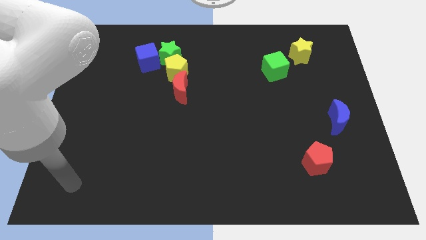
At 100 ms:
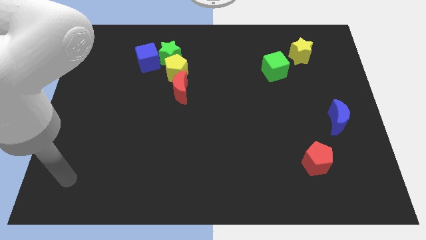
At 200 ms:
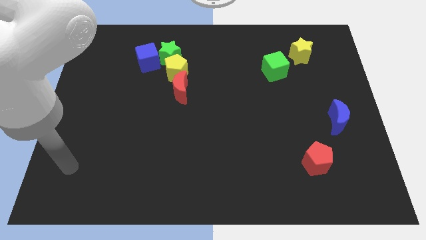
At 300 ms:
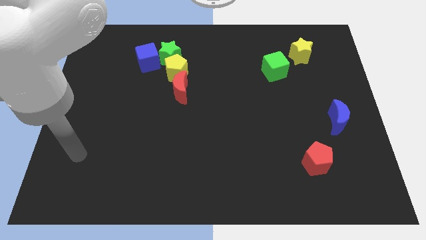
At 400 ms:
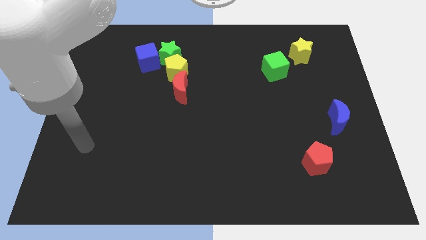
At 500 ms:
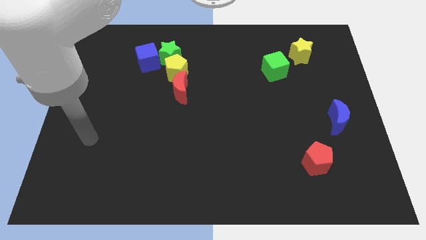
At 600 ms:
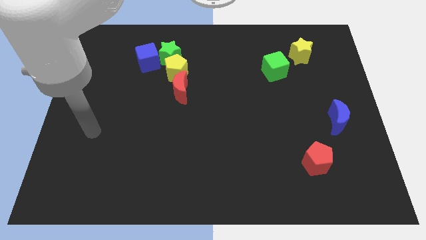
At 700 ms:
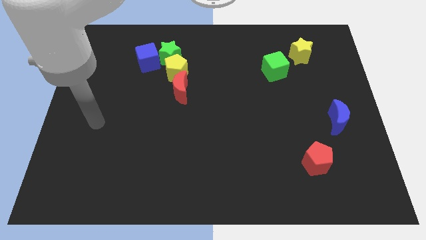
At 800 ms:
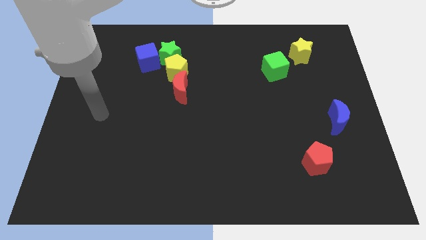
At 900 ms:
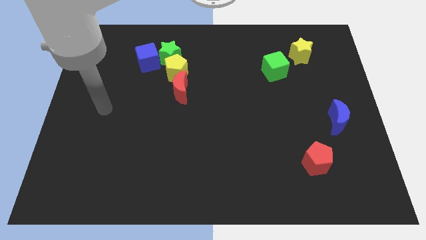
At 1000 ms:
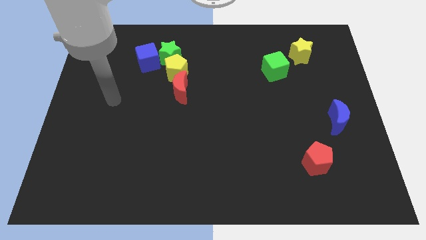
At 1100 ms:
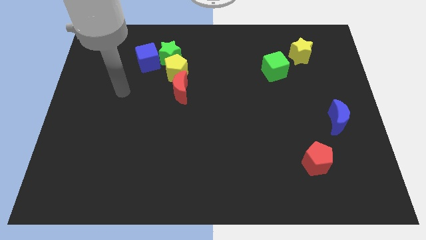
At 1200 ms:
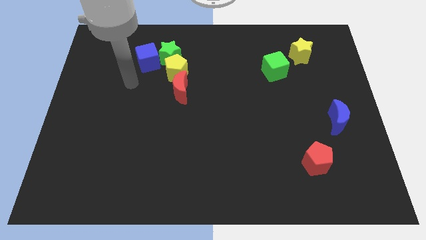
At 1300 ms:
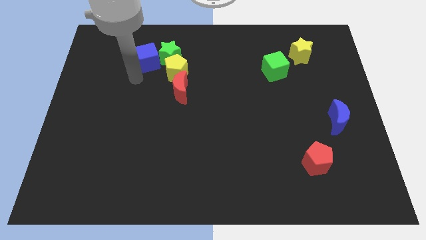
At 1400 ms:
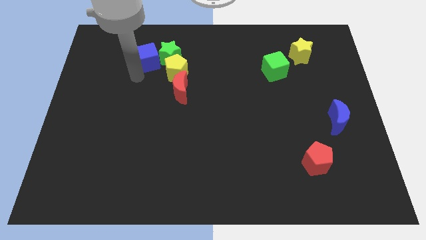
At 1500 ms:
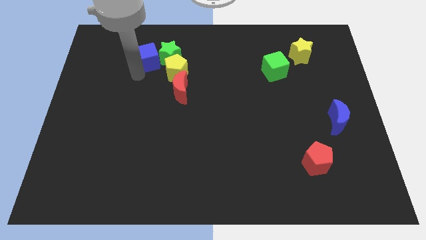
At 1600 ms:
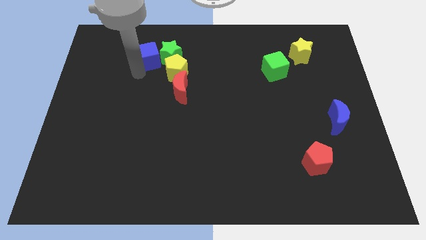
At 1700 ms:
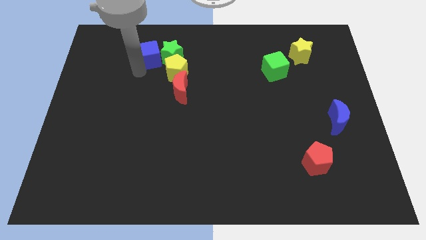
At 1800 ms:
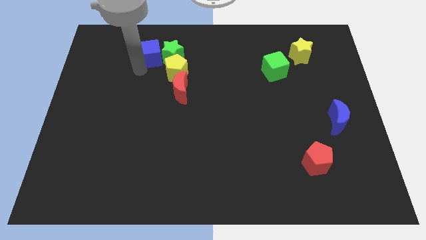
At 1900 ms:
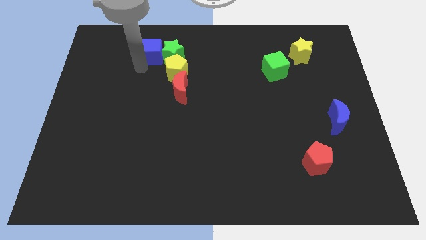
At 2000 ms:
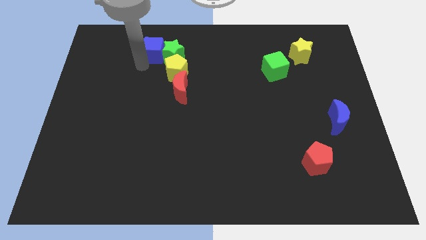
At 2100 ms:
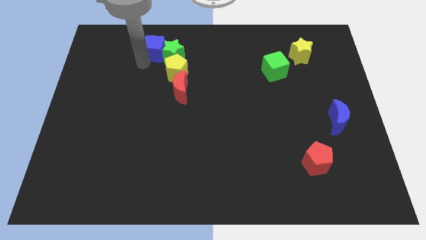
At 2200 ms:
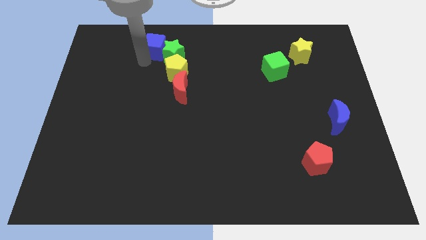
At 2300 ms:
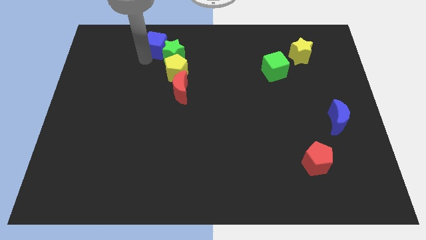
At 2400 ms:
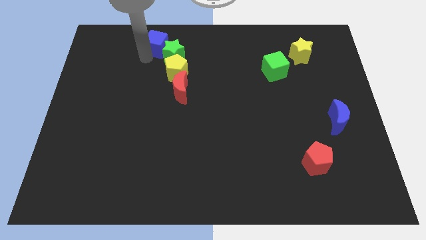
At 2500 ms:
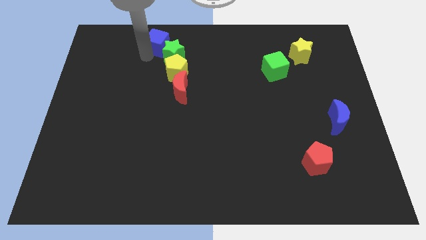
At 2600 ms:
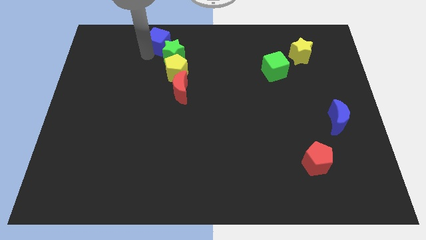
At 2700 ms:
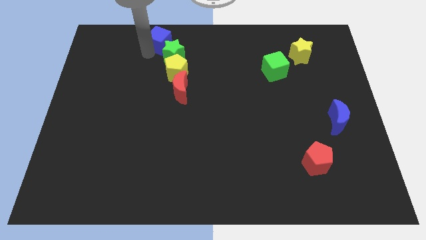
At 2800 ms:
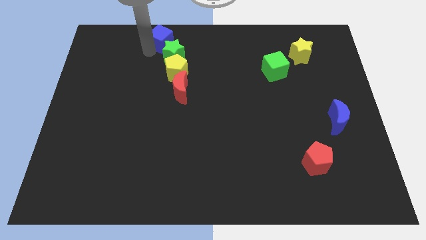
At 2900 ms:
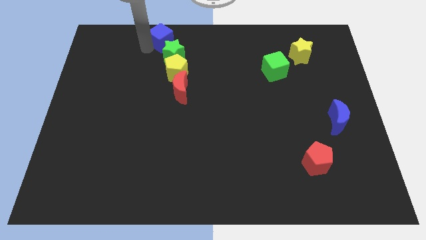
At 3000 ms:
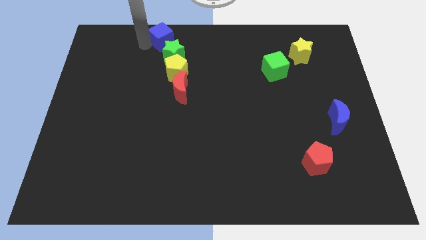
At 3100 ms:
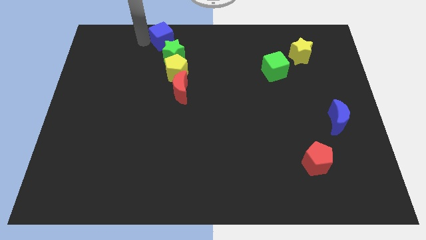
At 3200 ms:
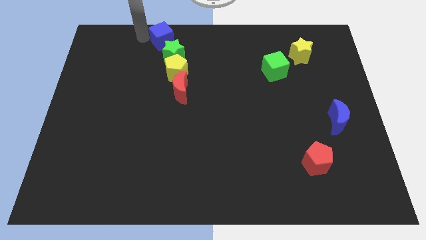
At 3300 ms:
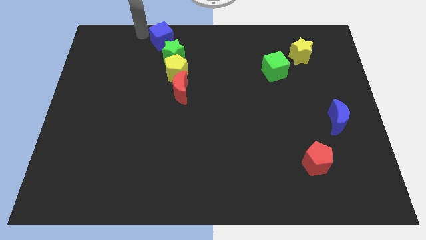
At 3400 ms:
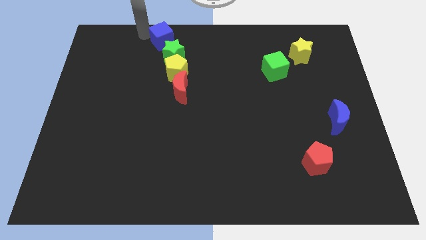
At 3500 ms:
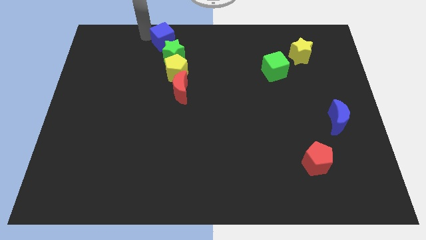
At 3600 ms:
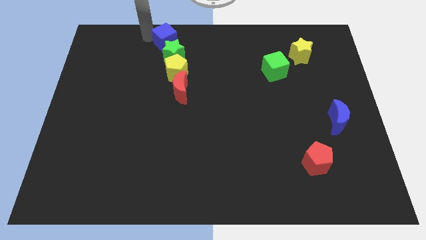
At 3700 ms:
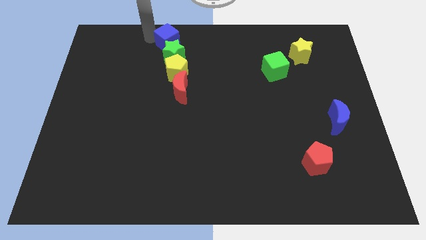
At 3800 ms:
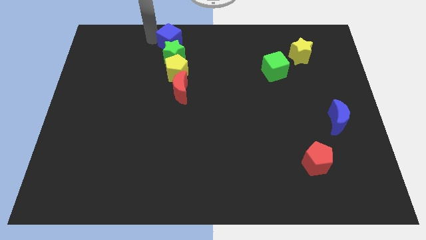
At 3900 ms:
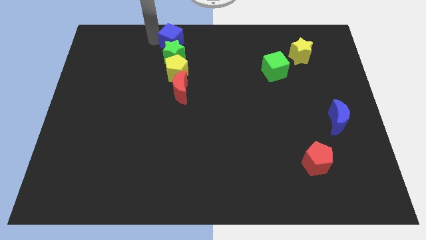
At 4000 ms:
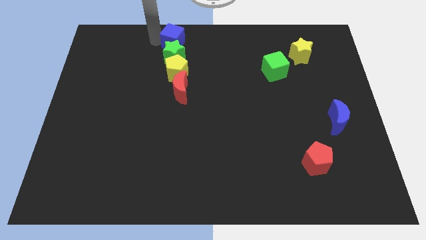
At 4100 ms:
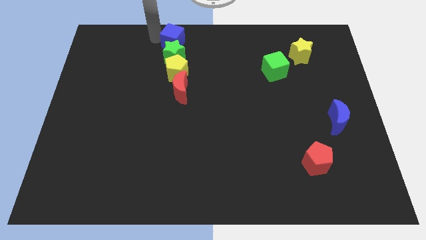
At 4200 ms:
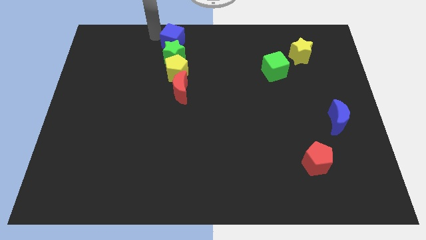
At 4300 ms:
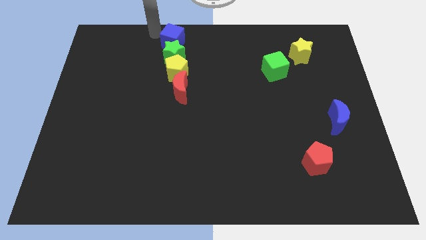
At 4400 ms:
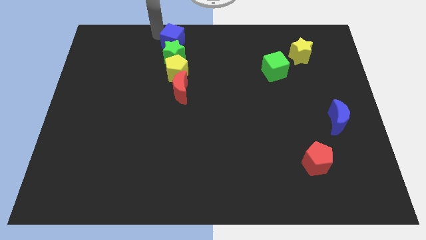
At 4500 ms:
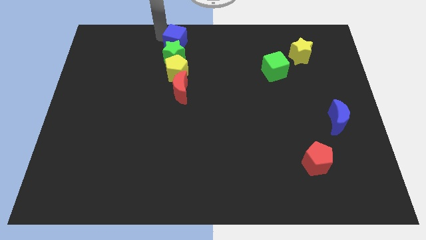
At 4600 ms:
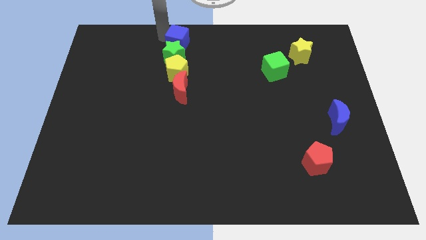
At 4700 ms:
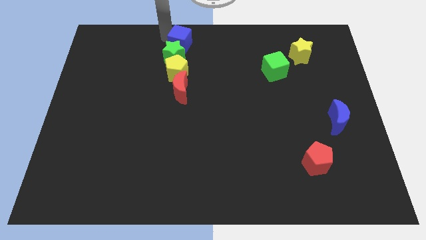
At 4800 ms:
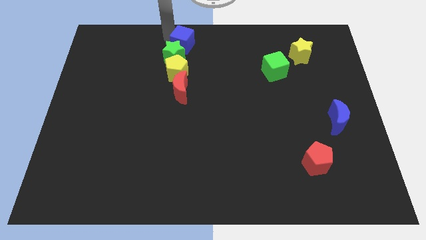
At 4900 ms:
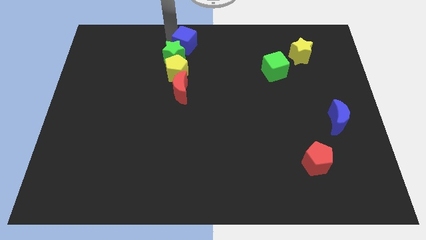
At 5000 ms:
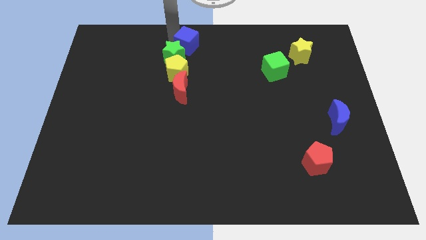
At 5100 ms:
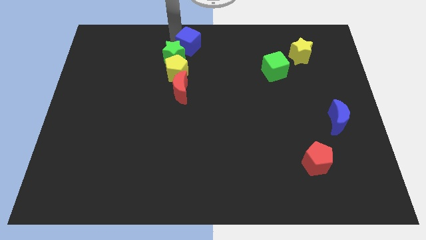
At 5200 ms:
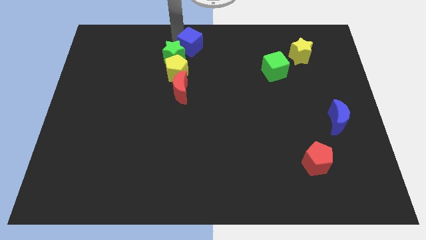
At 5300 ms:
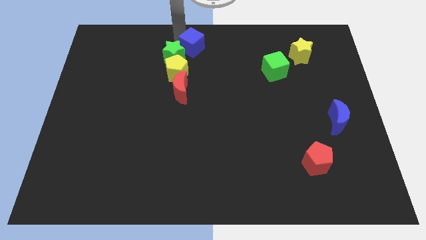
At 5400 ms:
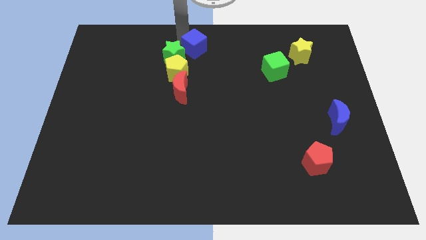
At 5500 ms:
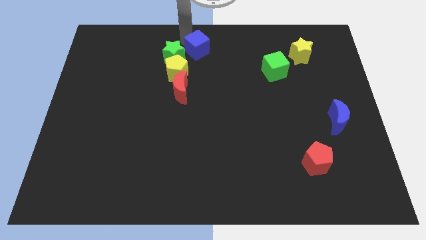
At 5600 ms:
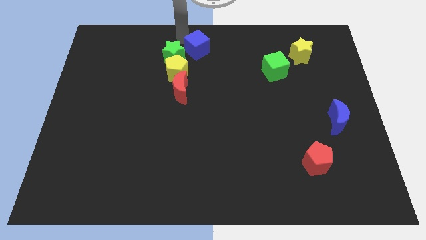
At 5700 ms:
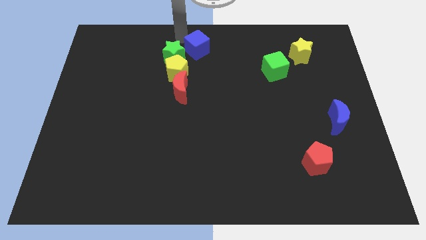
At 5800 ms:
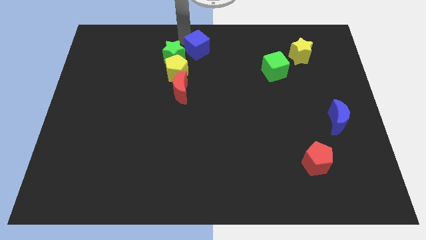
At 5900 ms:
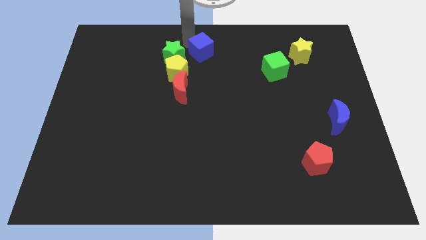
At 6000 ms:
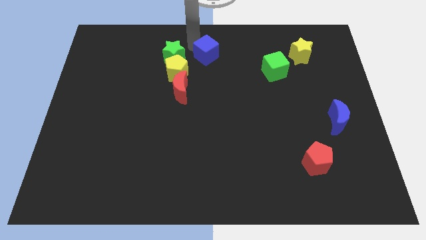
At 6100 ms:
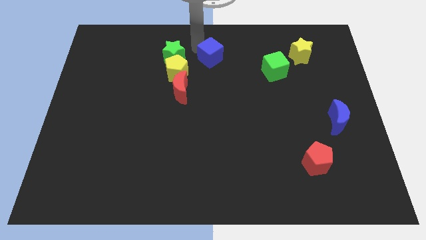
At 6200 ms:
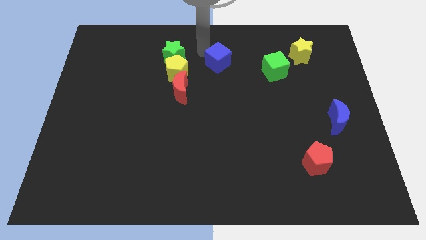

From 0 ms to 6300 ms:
move the blue cube to the left of the green cube
